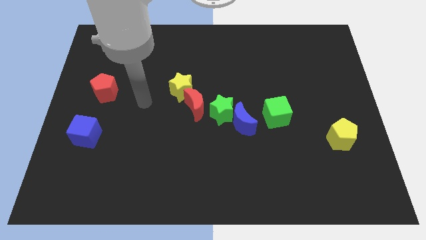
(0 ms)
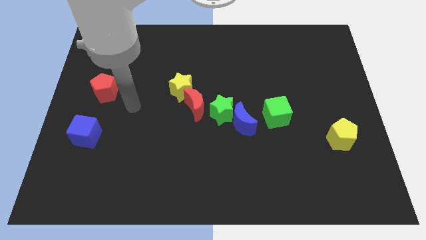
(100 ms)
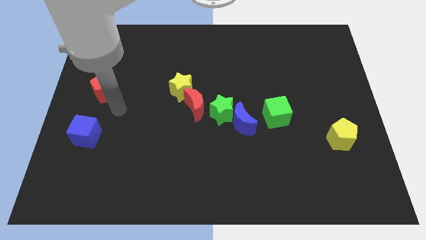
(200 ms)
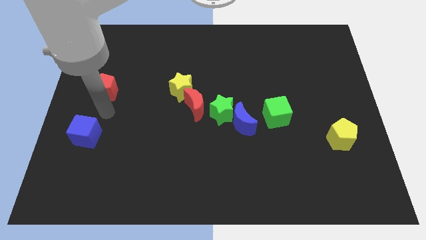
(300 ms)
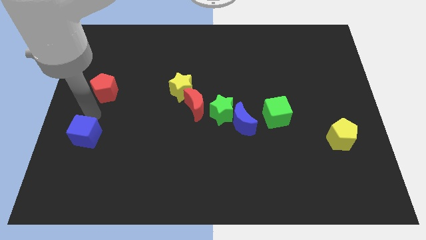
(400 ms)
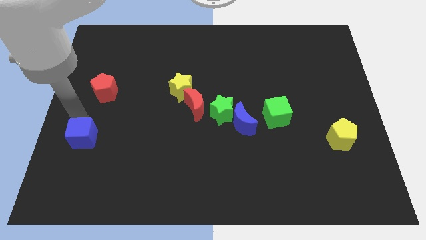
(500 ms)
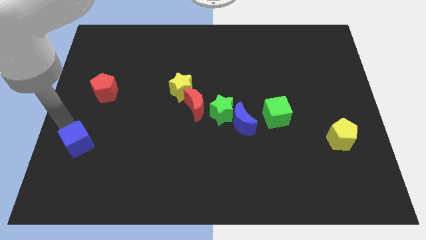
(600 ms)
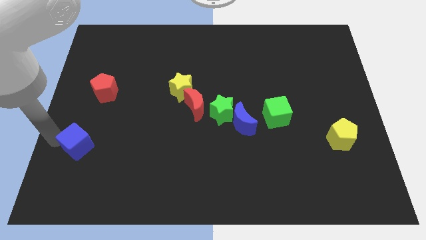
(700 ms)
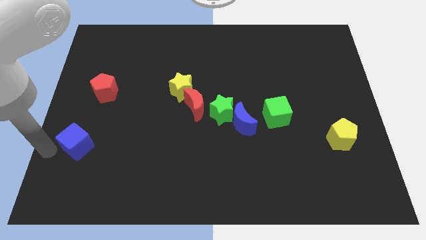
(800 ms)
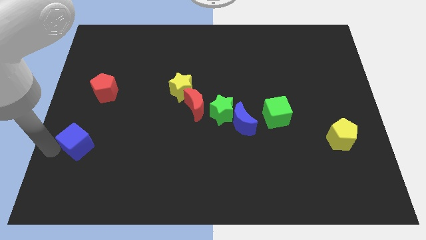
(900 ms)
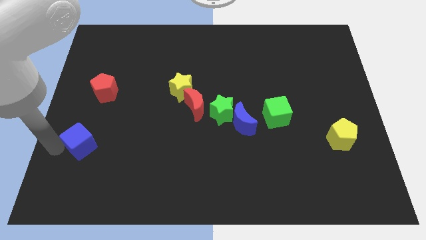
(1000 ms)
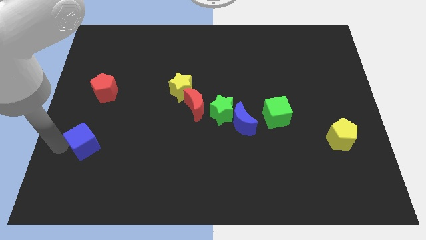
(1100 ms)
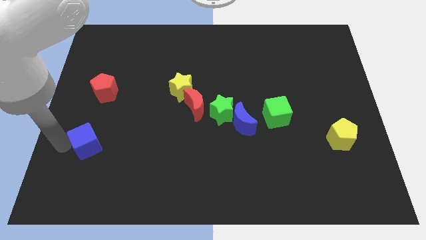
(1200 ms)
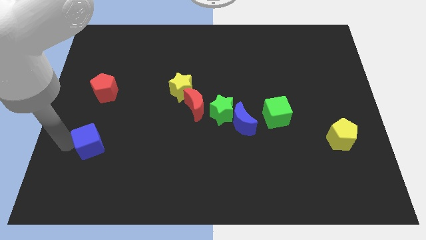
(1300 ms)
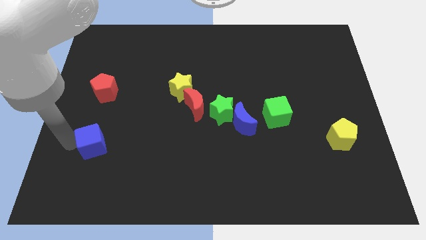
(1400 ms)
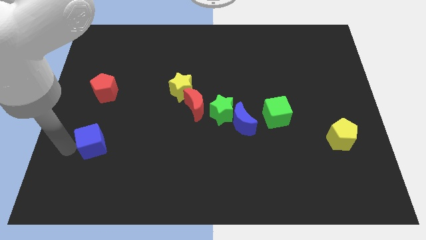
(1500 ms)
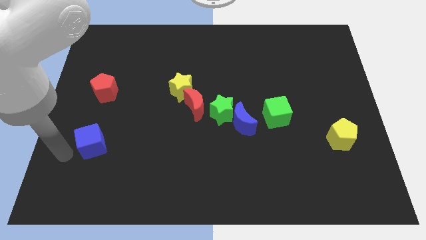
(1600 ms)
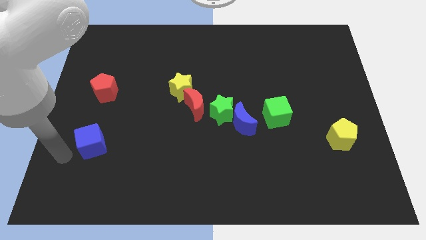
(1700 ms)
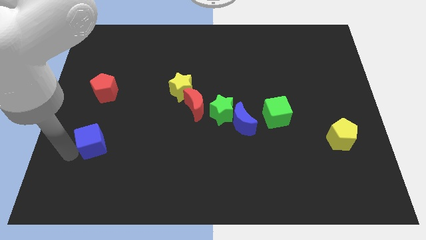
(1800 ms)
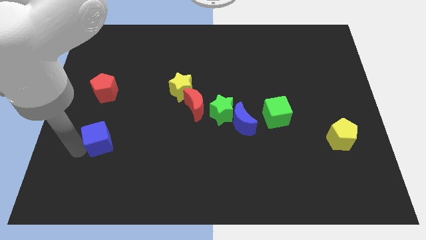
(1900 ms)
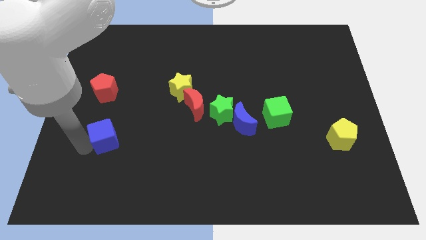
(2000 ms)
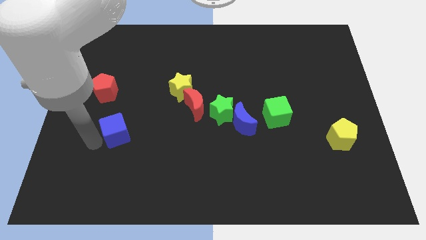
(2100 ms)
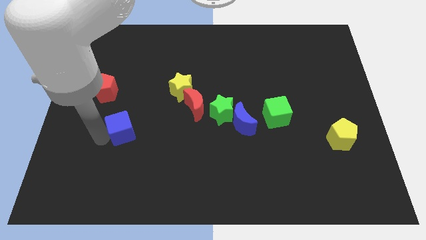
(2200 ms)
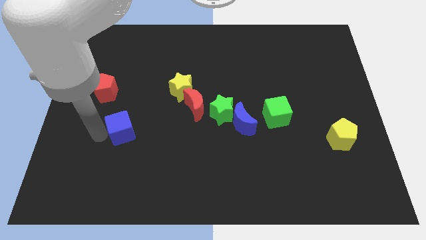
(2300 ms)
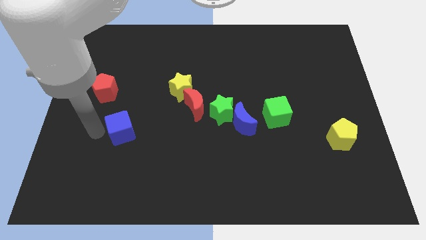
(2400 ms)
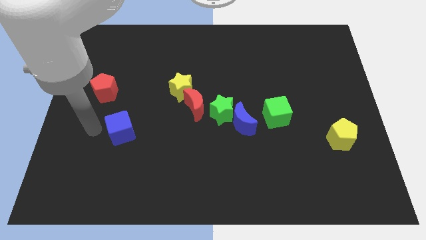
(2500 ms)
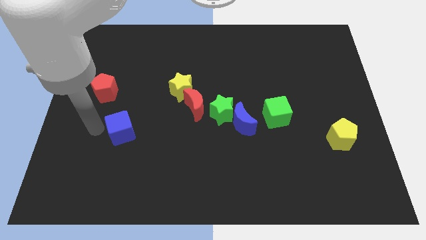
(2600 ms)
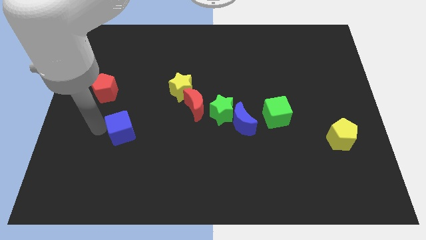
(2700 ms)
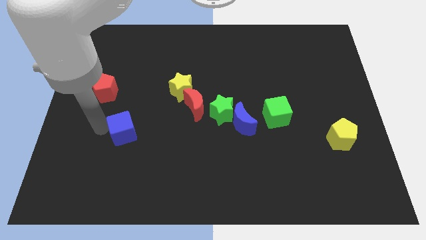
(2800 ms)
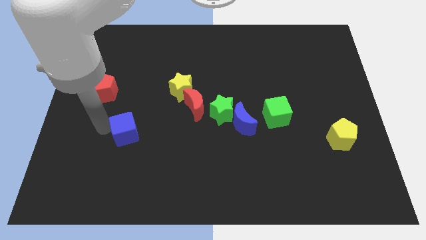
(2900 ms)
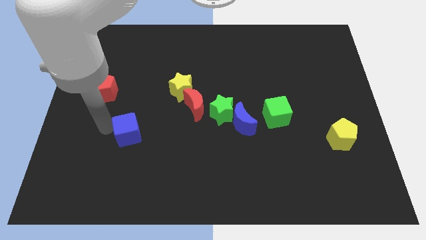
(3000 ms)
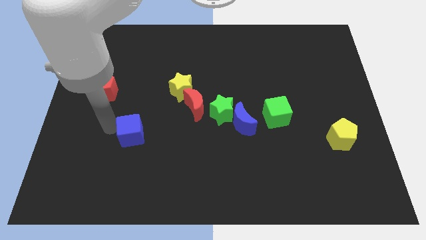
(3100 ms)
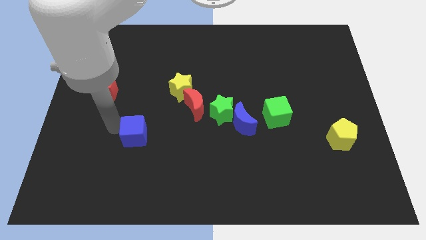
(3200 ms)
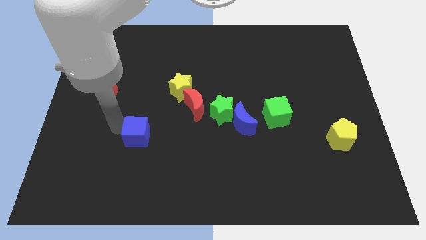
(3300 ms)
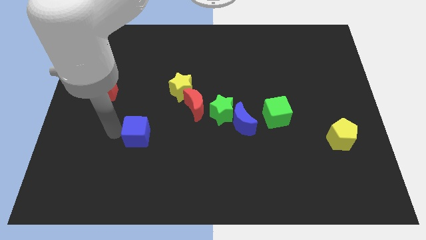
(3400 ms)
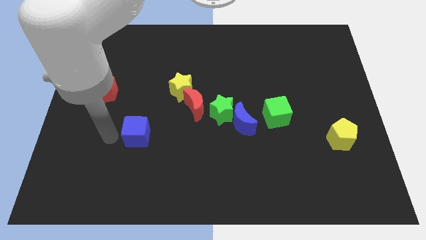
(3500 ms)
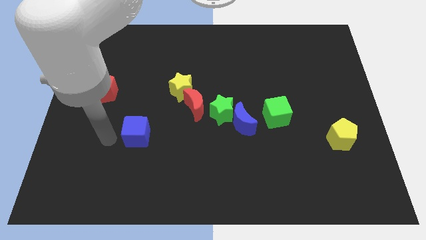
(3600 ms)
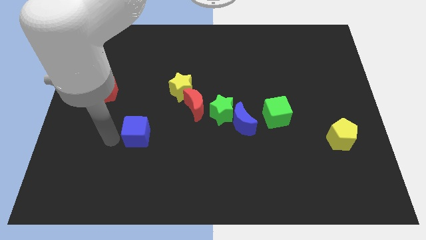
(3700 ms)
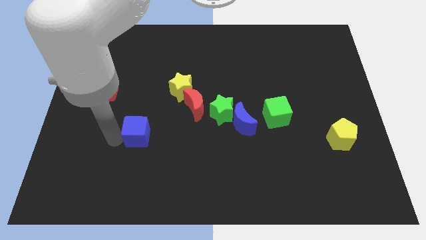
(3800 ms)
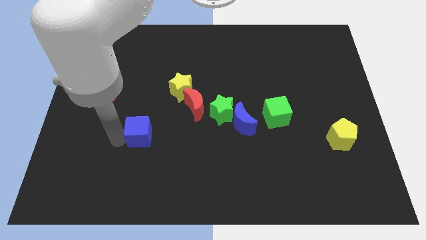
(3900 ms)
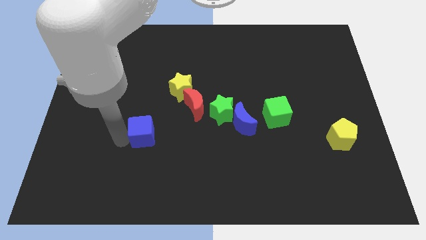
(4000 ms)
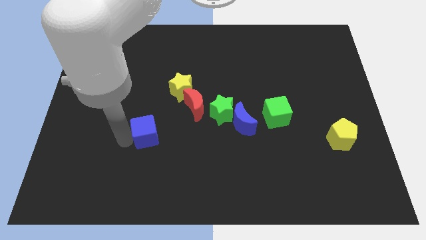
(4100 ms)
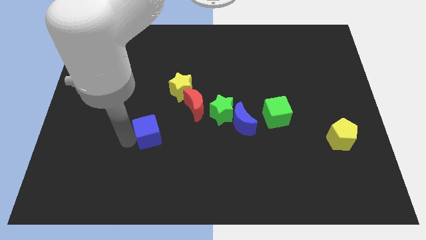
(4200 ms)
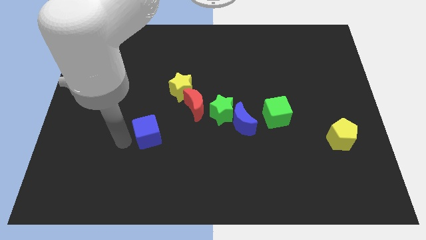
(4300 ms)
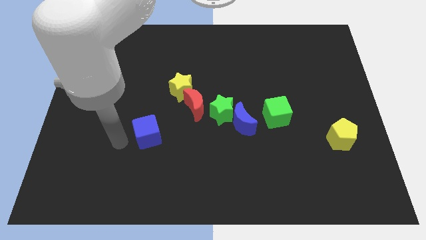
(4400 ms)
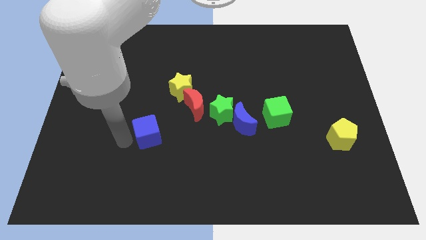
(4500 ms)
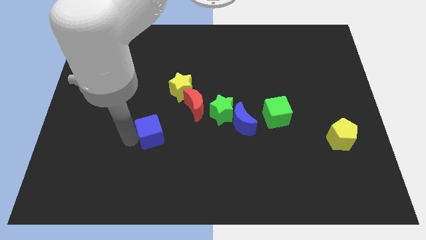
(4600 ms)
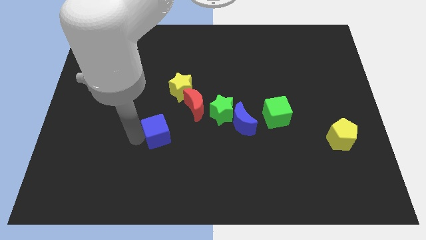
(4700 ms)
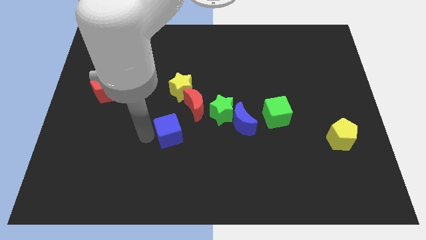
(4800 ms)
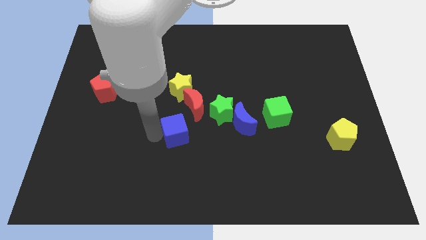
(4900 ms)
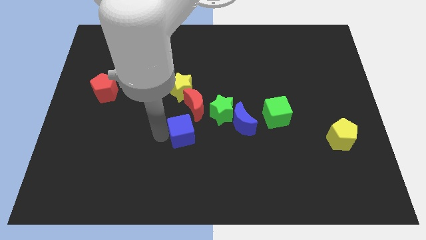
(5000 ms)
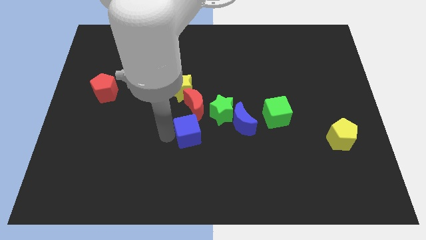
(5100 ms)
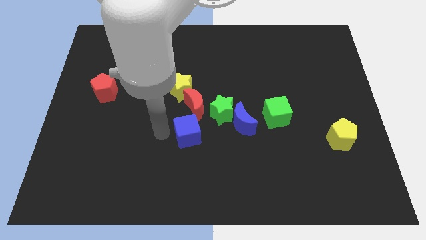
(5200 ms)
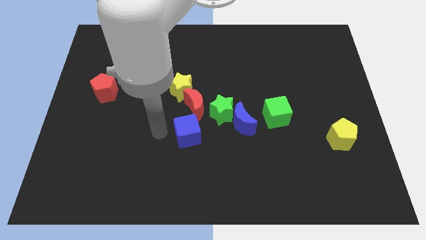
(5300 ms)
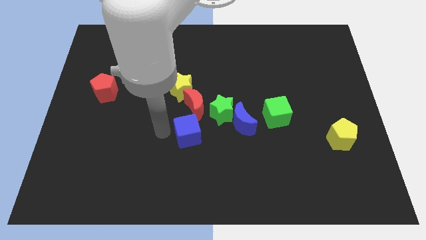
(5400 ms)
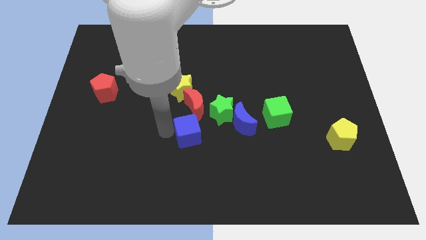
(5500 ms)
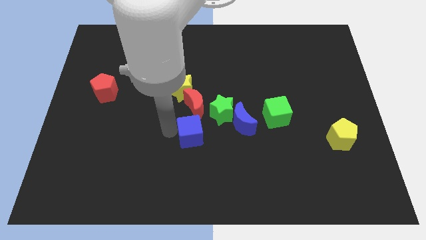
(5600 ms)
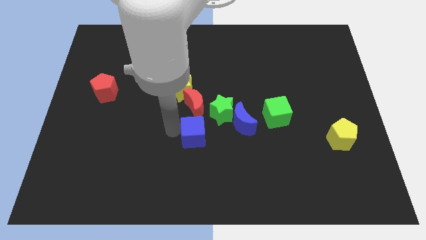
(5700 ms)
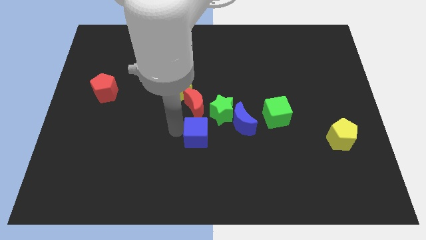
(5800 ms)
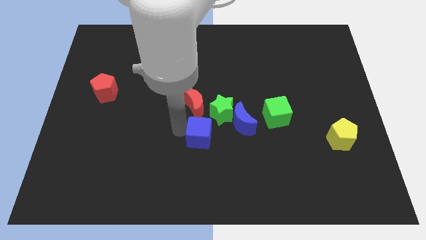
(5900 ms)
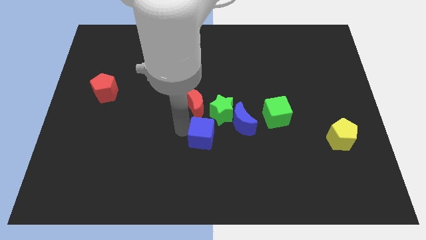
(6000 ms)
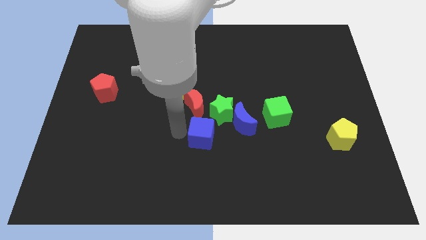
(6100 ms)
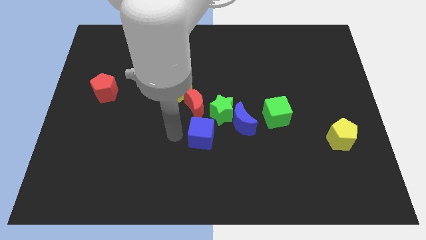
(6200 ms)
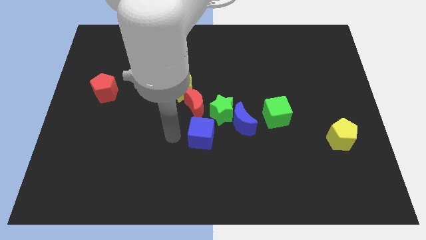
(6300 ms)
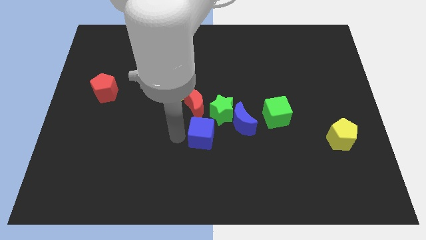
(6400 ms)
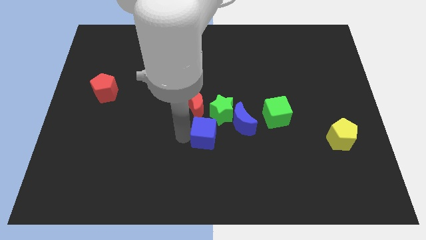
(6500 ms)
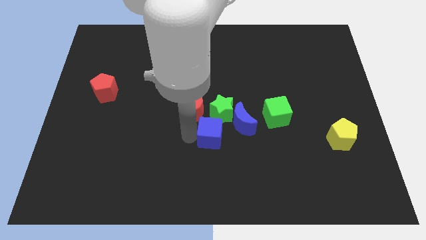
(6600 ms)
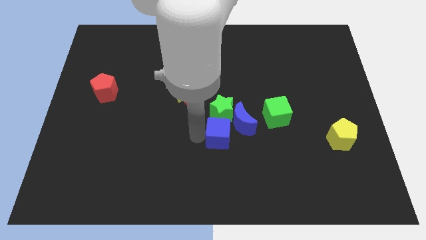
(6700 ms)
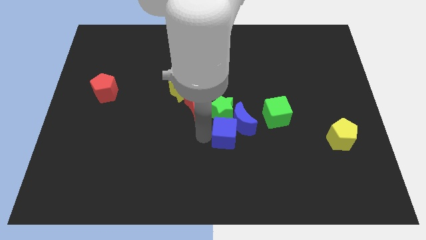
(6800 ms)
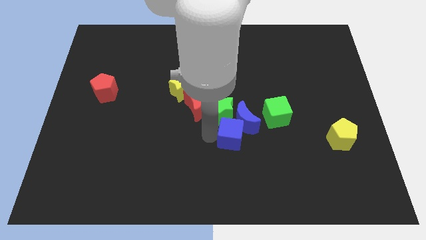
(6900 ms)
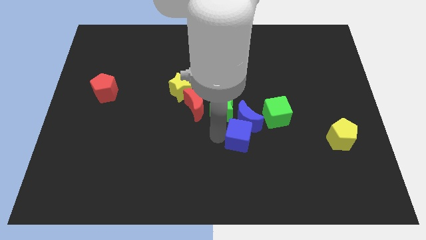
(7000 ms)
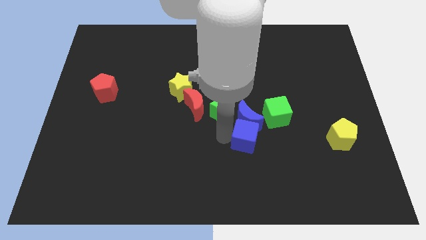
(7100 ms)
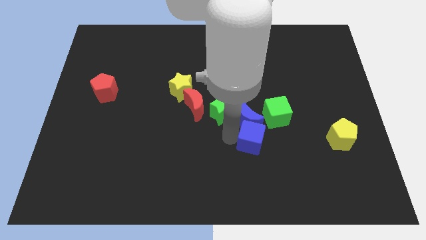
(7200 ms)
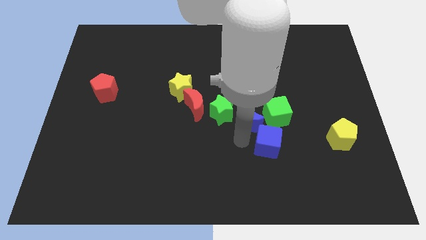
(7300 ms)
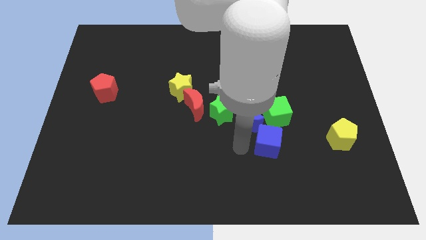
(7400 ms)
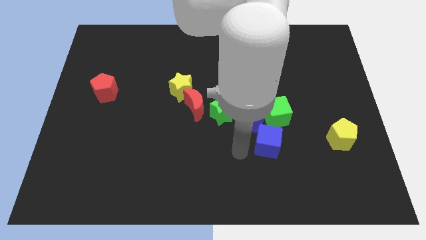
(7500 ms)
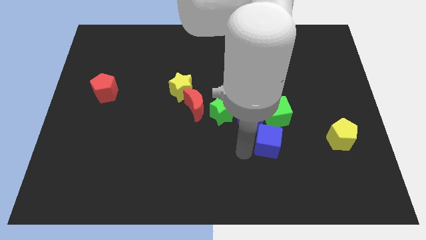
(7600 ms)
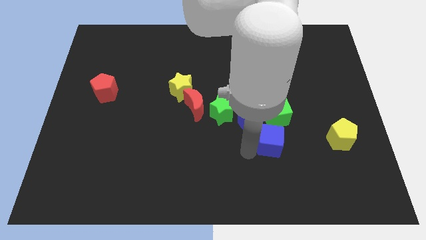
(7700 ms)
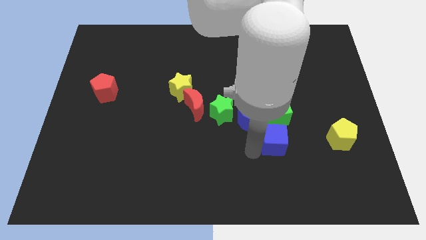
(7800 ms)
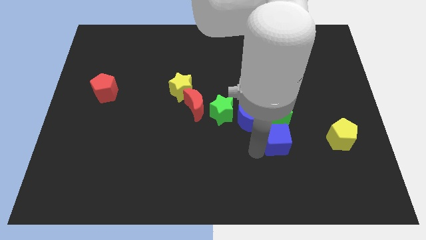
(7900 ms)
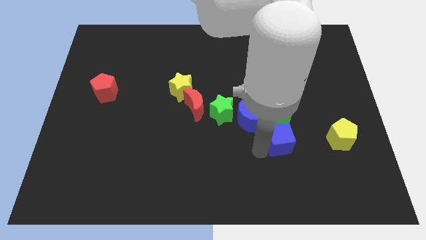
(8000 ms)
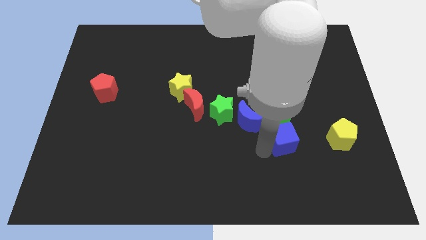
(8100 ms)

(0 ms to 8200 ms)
slide the blue cube to the bottom right of the green cube
